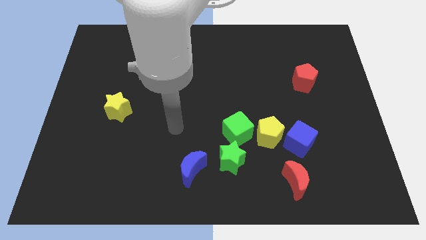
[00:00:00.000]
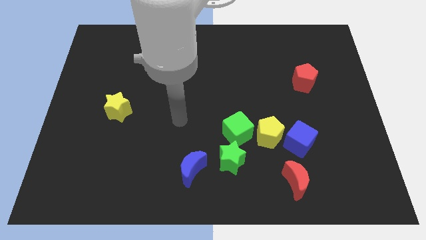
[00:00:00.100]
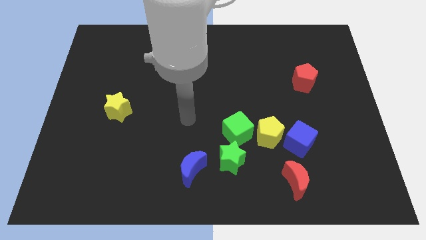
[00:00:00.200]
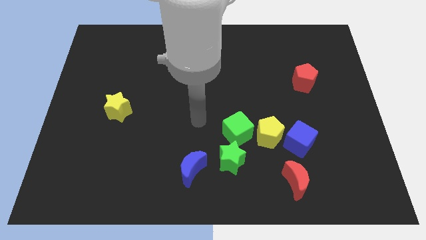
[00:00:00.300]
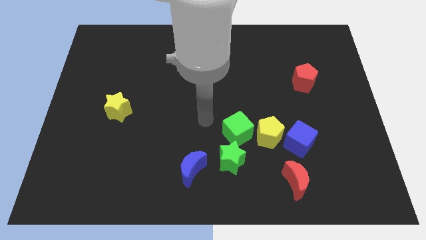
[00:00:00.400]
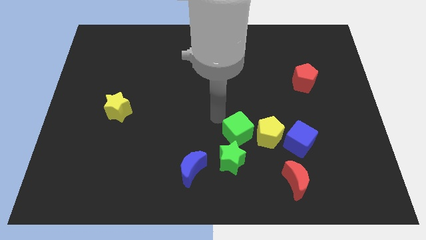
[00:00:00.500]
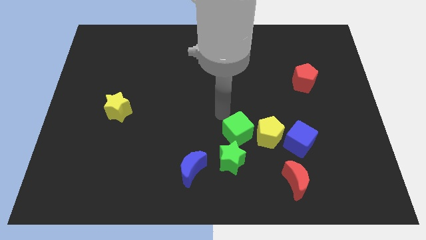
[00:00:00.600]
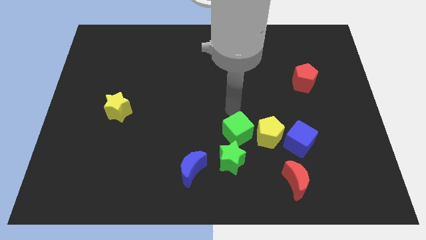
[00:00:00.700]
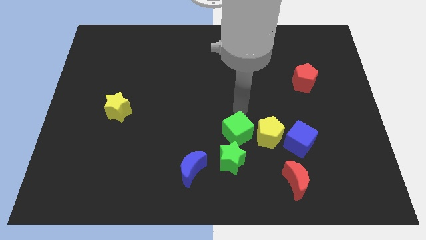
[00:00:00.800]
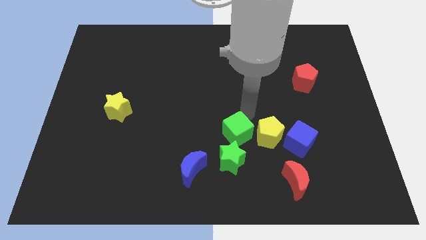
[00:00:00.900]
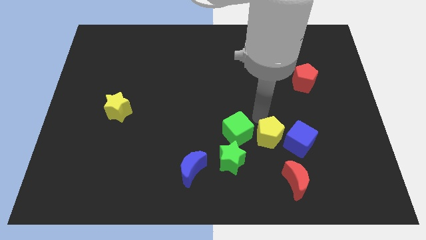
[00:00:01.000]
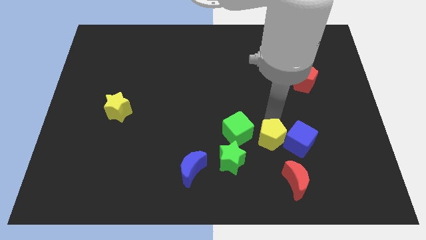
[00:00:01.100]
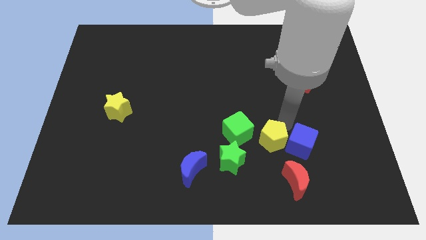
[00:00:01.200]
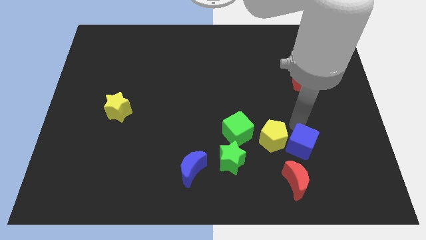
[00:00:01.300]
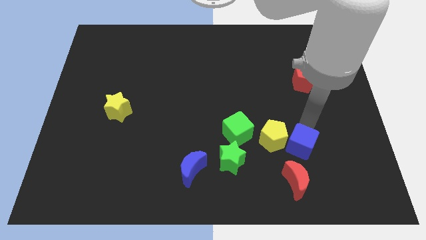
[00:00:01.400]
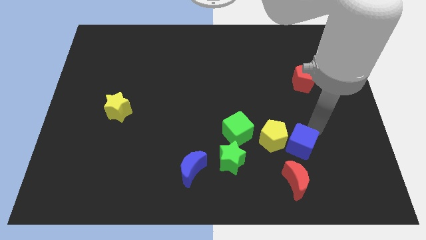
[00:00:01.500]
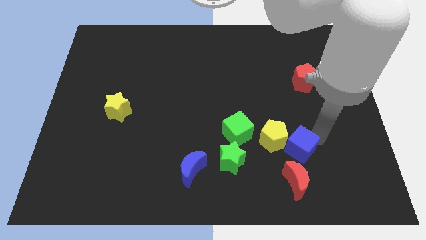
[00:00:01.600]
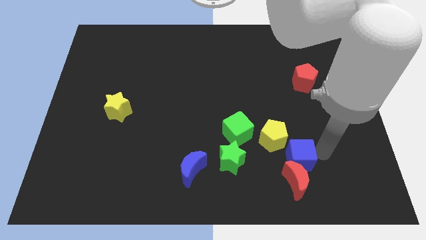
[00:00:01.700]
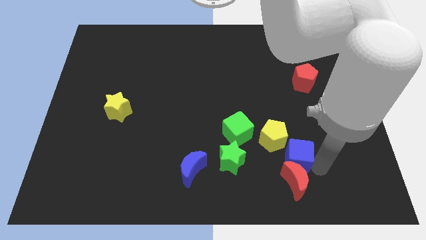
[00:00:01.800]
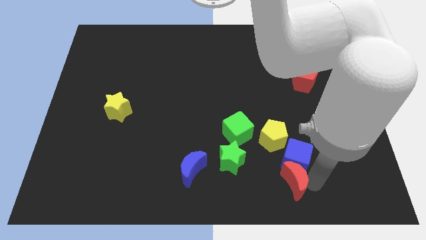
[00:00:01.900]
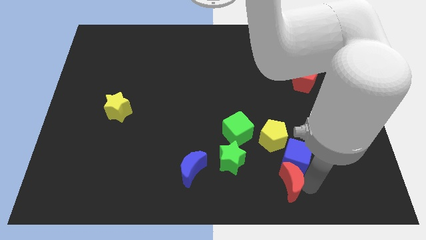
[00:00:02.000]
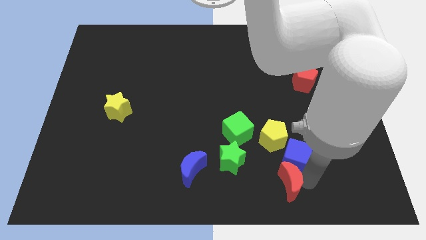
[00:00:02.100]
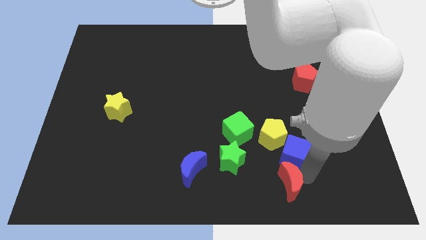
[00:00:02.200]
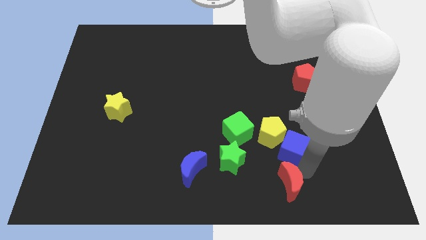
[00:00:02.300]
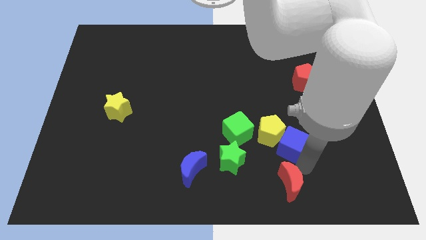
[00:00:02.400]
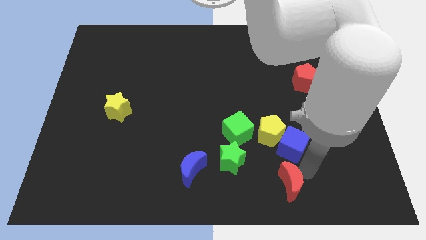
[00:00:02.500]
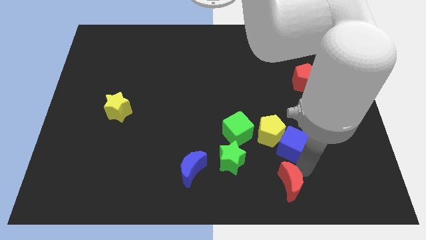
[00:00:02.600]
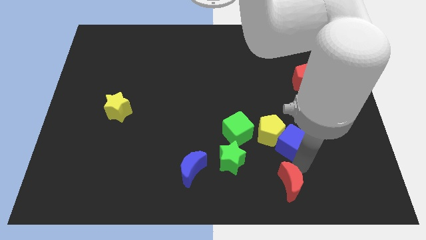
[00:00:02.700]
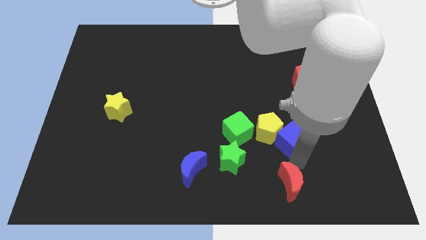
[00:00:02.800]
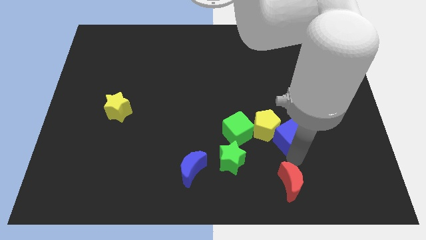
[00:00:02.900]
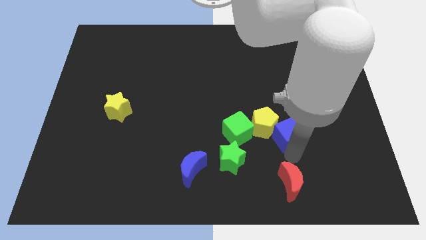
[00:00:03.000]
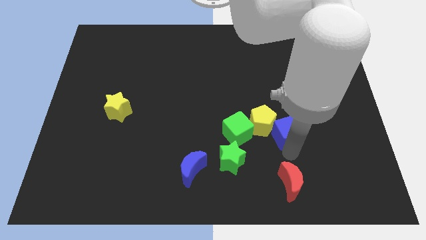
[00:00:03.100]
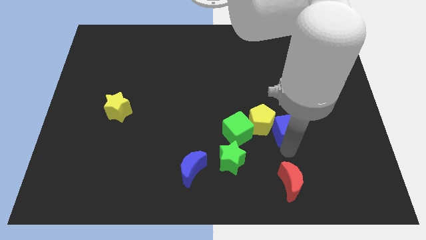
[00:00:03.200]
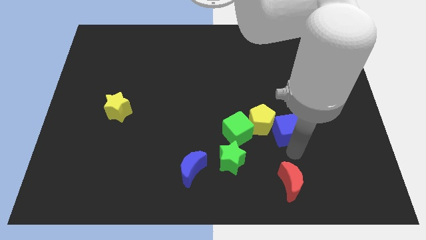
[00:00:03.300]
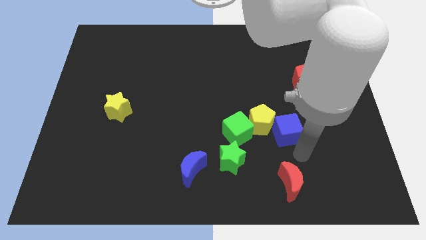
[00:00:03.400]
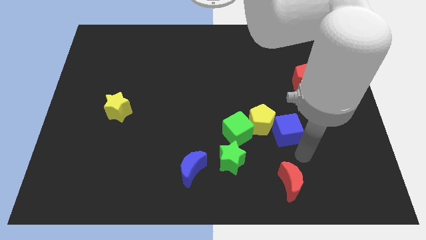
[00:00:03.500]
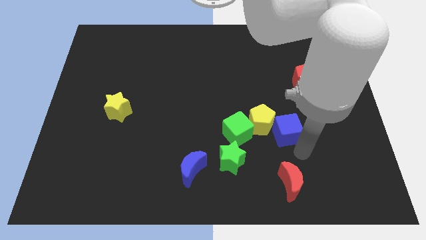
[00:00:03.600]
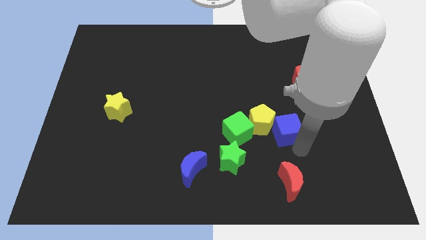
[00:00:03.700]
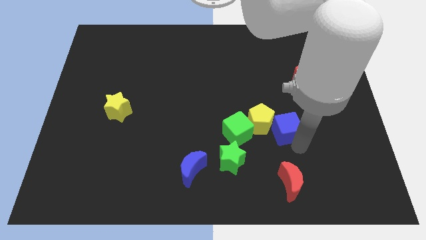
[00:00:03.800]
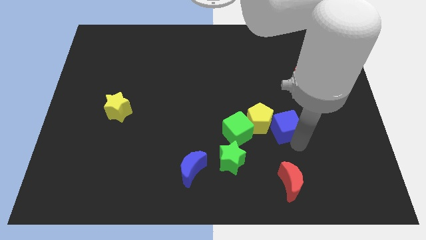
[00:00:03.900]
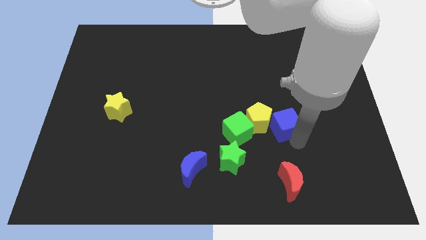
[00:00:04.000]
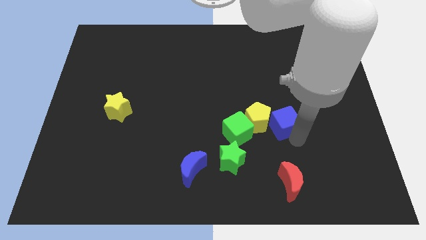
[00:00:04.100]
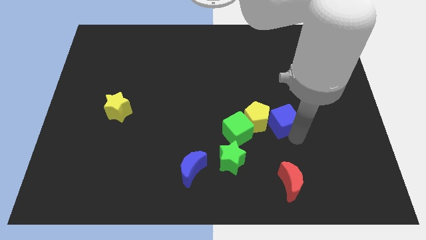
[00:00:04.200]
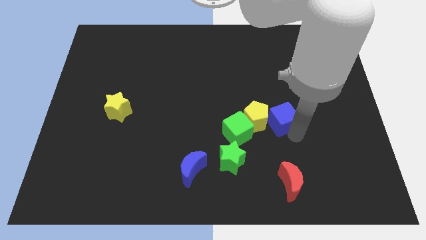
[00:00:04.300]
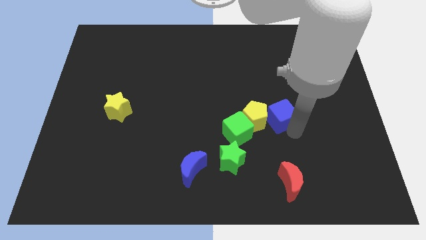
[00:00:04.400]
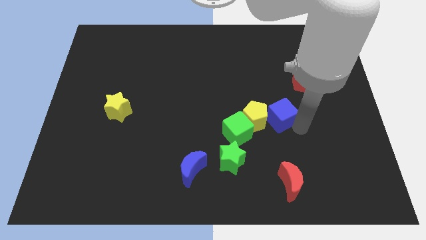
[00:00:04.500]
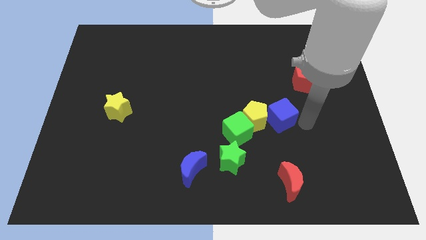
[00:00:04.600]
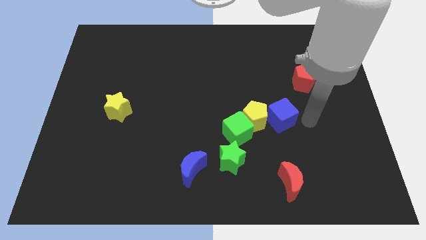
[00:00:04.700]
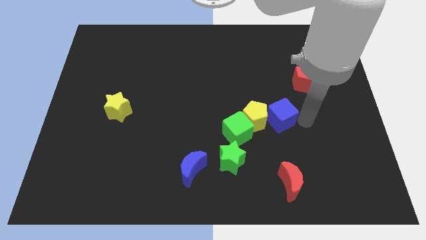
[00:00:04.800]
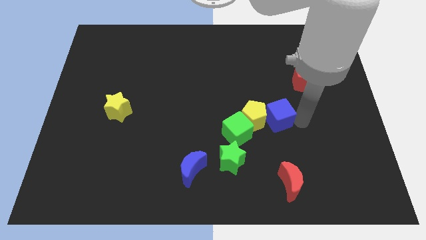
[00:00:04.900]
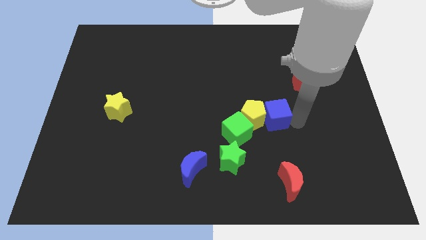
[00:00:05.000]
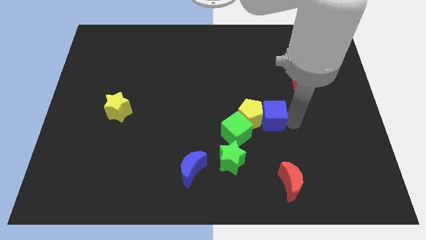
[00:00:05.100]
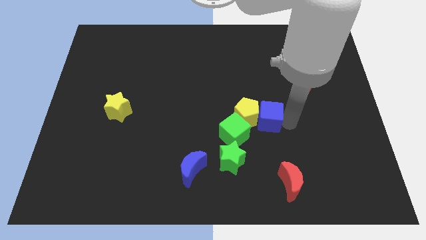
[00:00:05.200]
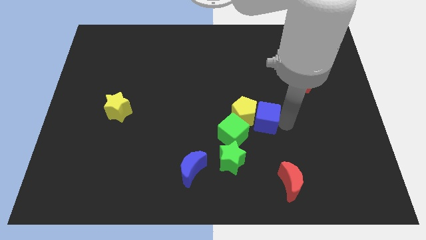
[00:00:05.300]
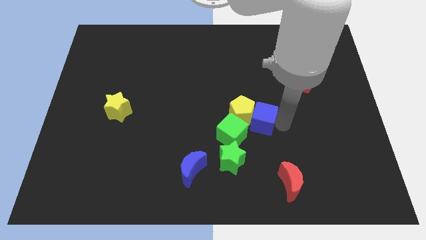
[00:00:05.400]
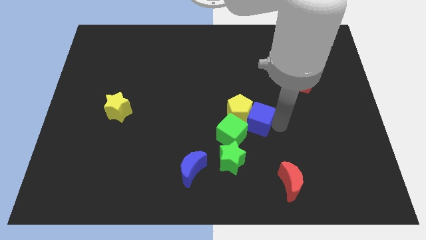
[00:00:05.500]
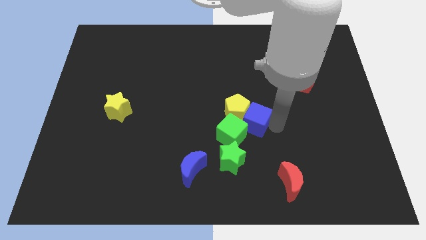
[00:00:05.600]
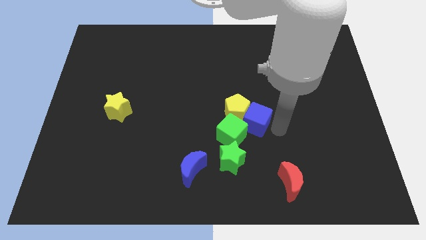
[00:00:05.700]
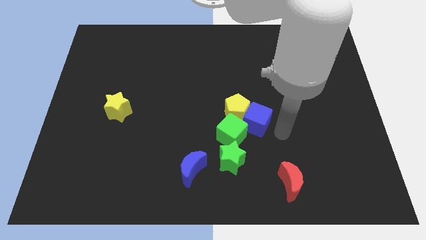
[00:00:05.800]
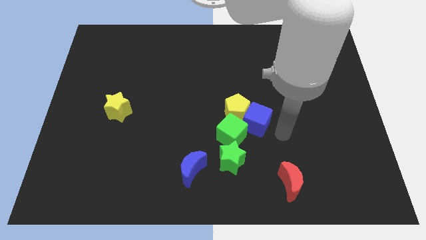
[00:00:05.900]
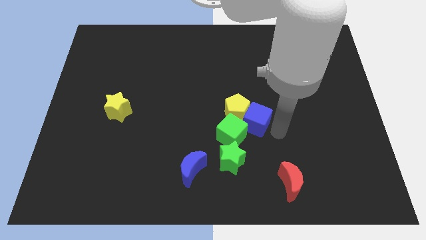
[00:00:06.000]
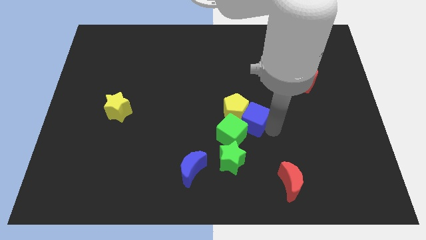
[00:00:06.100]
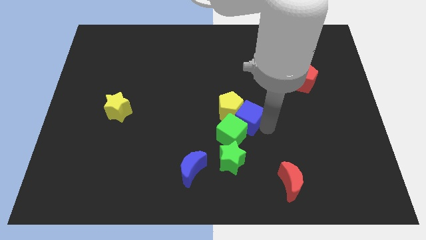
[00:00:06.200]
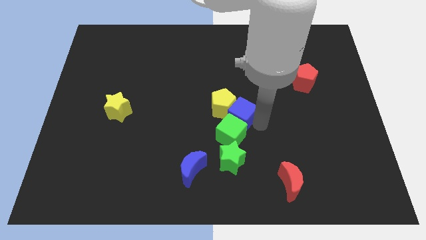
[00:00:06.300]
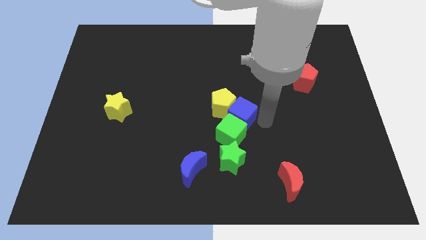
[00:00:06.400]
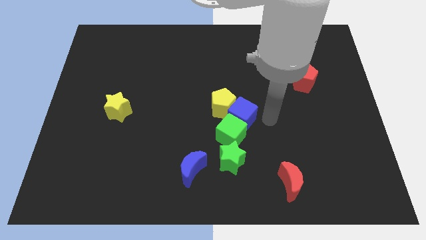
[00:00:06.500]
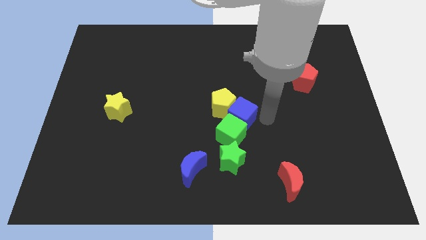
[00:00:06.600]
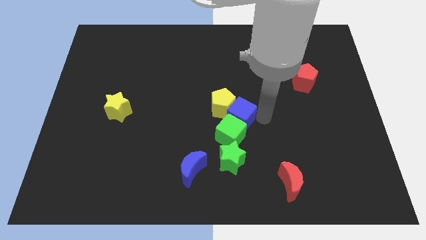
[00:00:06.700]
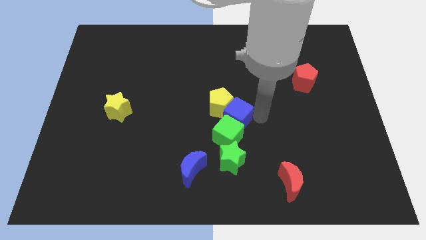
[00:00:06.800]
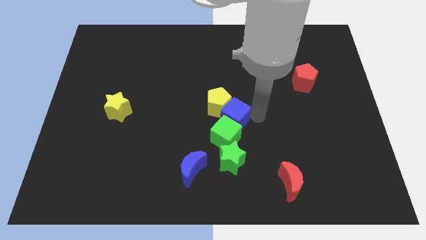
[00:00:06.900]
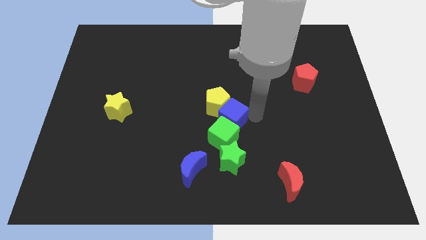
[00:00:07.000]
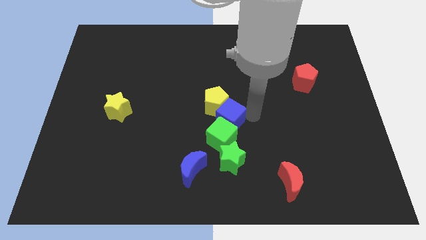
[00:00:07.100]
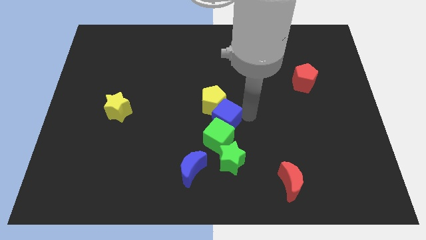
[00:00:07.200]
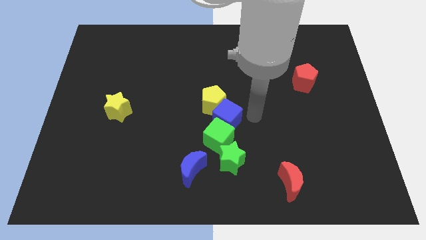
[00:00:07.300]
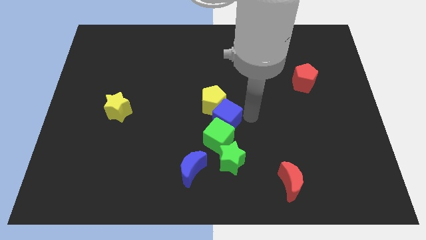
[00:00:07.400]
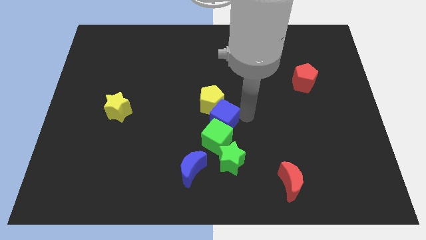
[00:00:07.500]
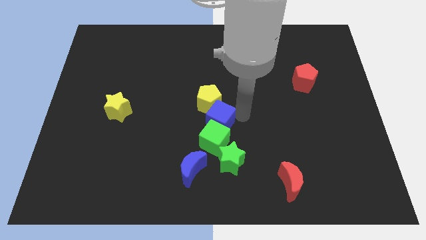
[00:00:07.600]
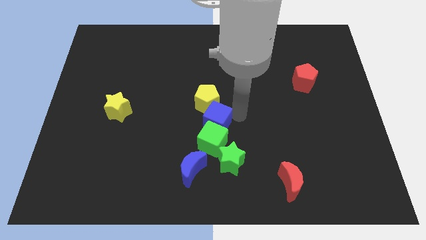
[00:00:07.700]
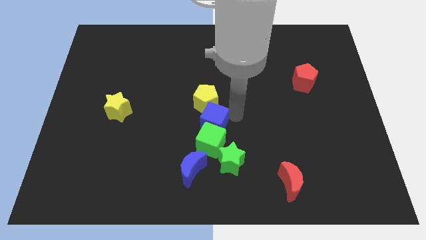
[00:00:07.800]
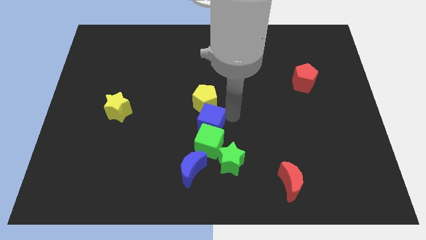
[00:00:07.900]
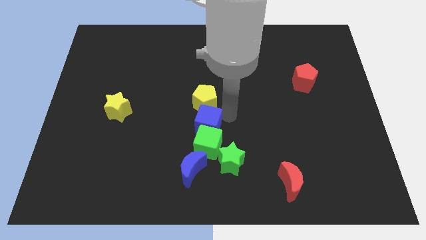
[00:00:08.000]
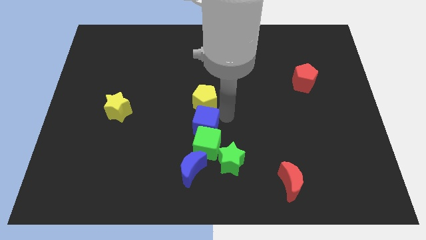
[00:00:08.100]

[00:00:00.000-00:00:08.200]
push the blue cube left
